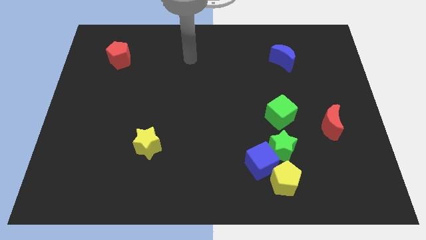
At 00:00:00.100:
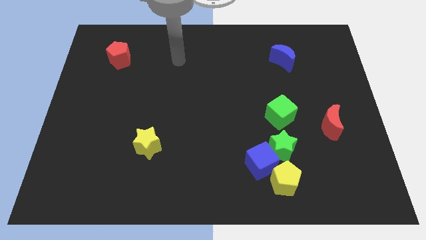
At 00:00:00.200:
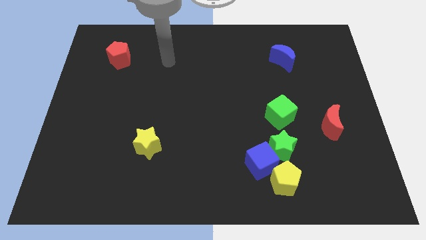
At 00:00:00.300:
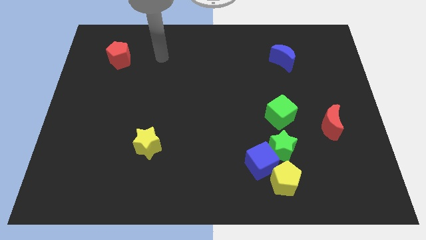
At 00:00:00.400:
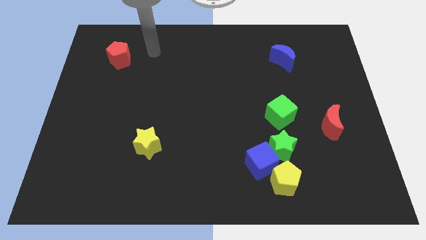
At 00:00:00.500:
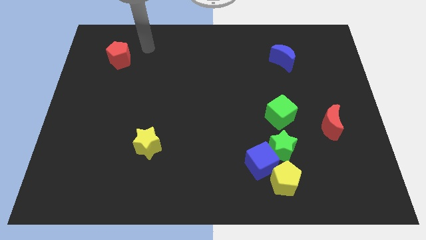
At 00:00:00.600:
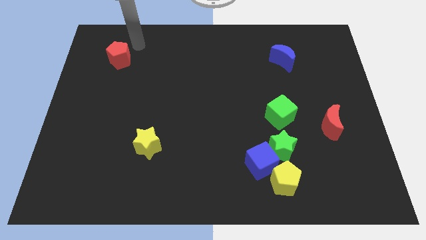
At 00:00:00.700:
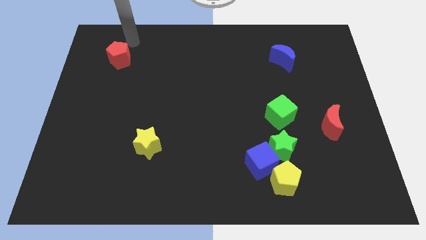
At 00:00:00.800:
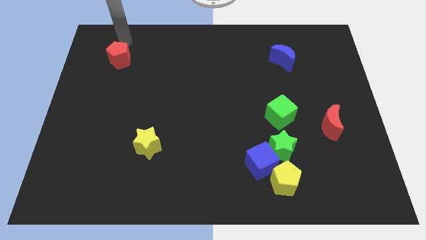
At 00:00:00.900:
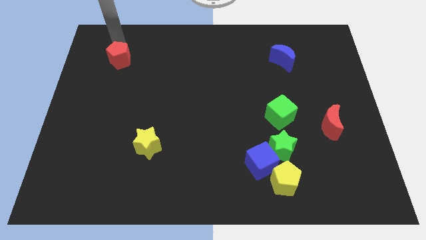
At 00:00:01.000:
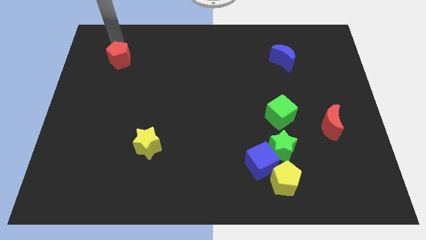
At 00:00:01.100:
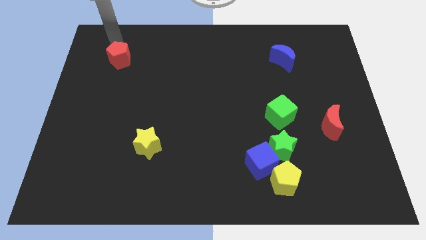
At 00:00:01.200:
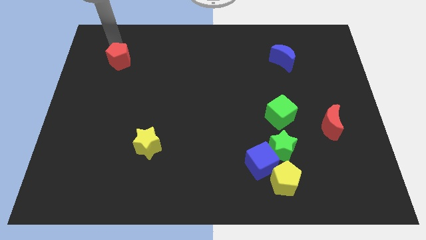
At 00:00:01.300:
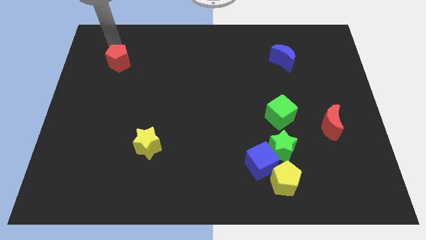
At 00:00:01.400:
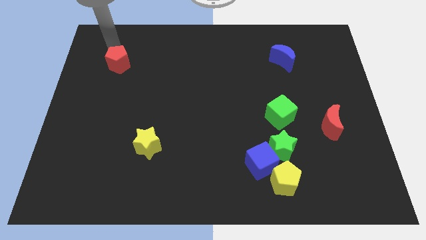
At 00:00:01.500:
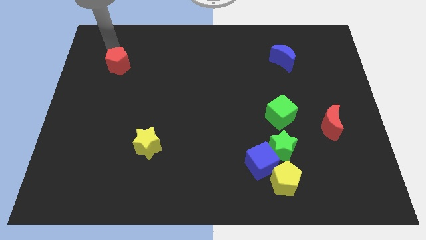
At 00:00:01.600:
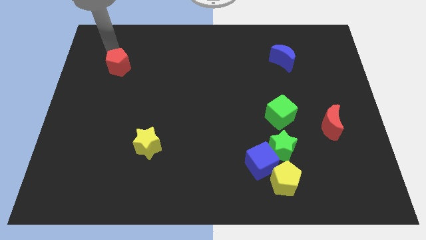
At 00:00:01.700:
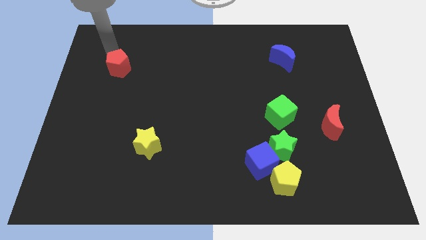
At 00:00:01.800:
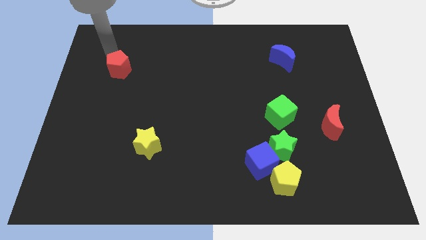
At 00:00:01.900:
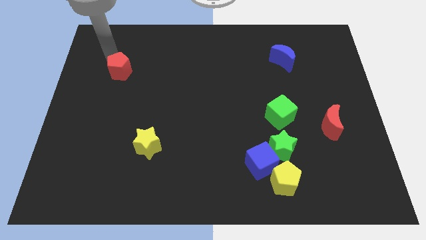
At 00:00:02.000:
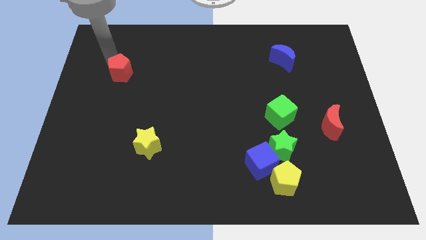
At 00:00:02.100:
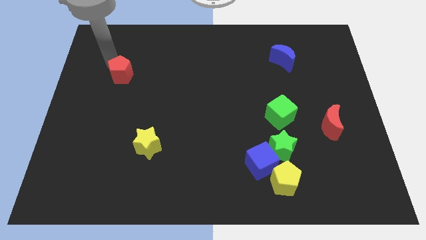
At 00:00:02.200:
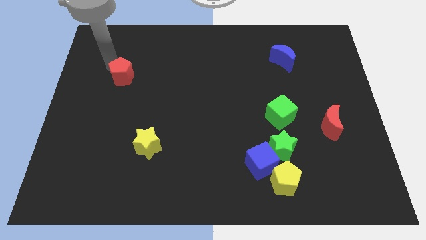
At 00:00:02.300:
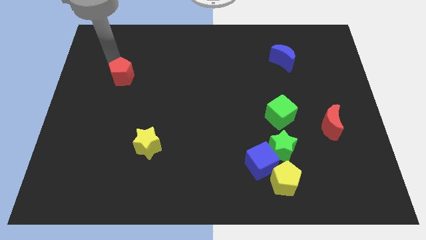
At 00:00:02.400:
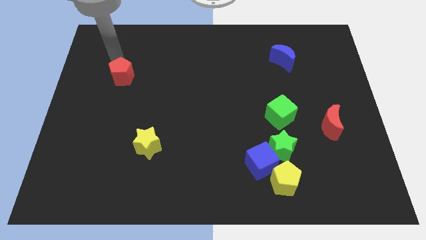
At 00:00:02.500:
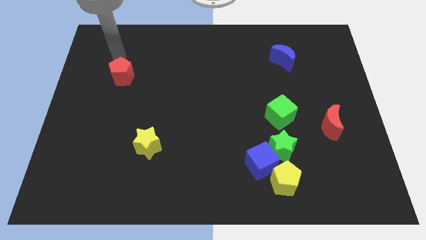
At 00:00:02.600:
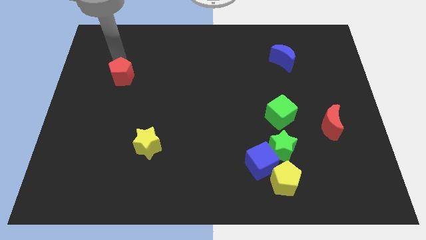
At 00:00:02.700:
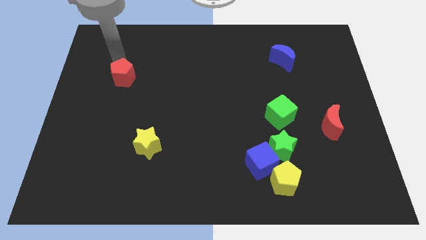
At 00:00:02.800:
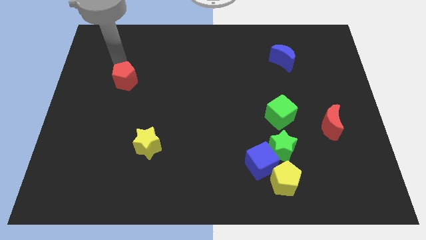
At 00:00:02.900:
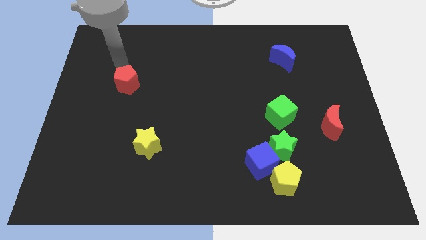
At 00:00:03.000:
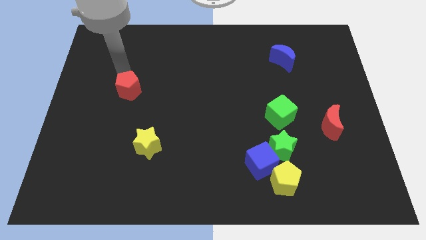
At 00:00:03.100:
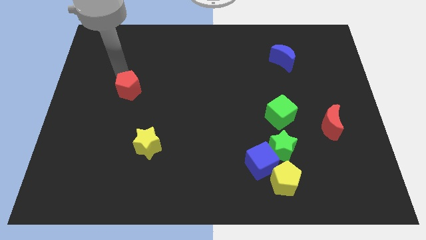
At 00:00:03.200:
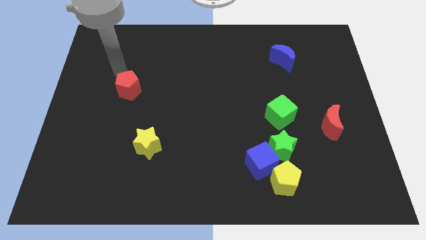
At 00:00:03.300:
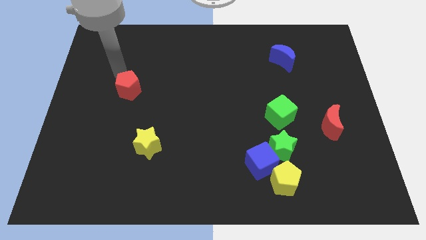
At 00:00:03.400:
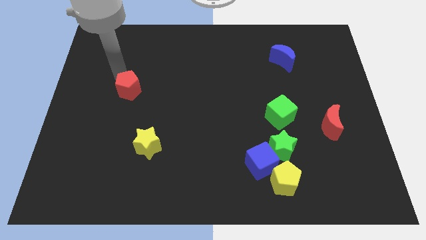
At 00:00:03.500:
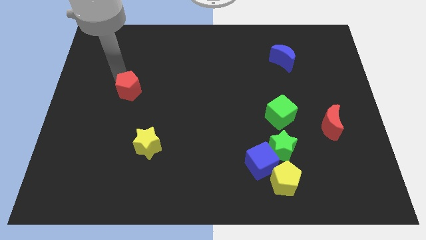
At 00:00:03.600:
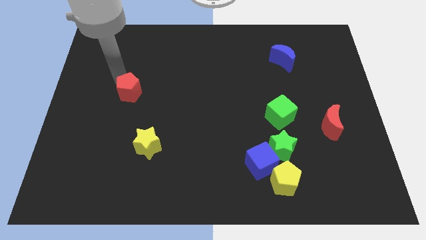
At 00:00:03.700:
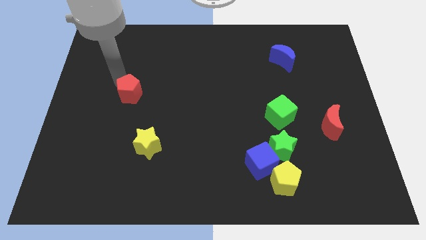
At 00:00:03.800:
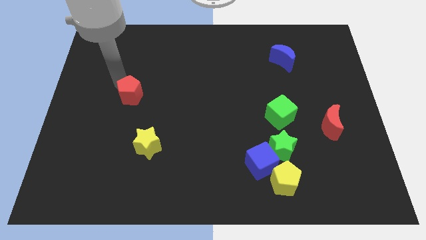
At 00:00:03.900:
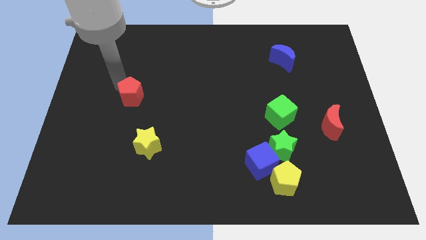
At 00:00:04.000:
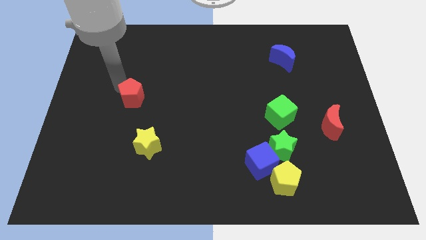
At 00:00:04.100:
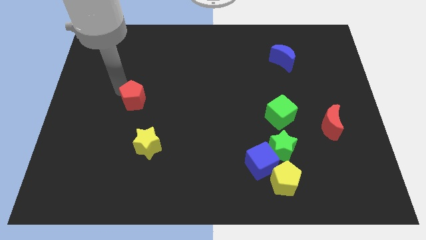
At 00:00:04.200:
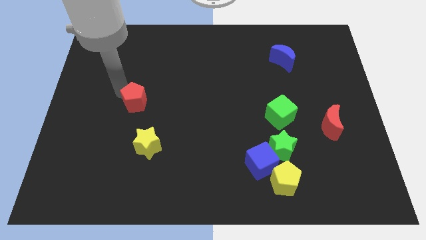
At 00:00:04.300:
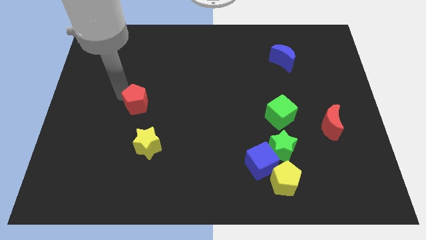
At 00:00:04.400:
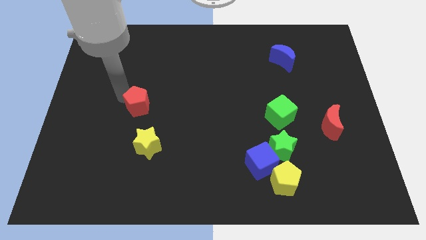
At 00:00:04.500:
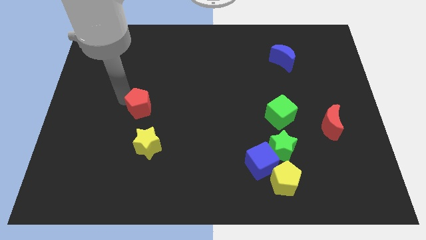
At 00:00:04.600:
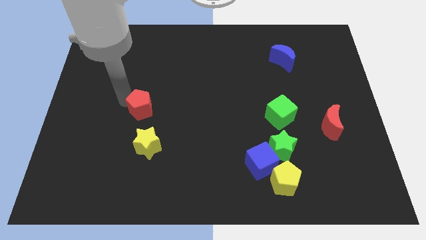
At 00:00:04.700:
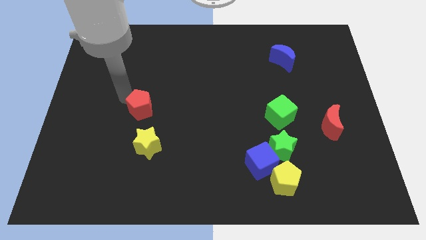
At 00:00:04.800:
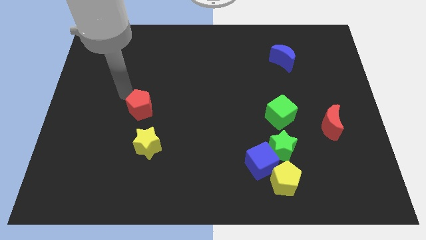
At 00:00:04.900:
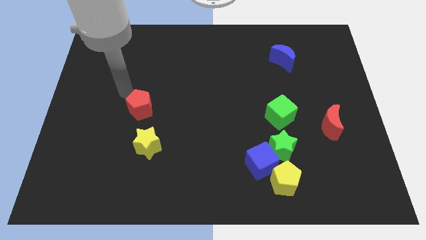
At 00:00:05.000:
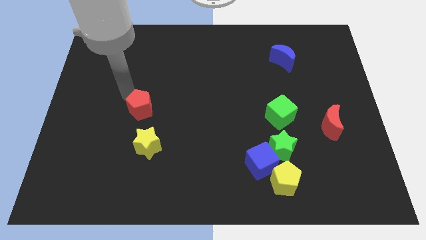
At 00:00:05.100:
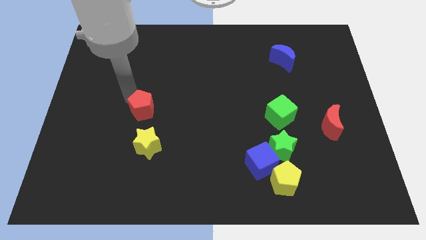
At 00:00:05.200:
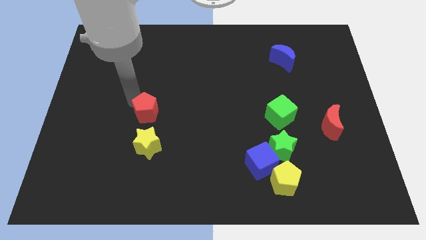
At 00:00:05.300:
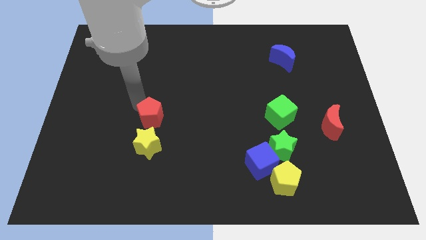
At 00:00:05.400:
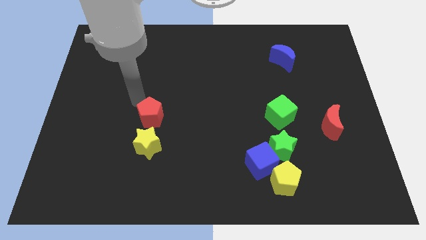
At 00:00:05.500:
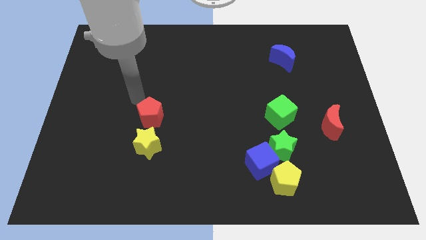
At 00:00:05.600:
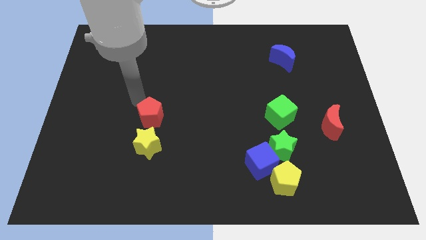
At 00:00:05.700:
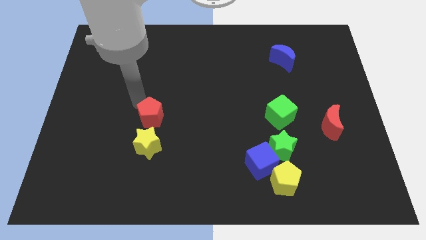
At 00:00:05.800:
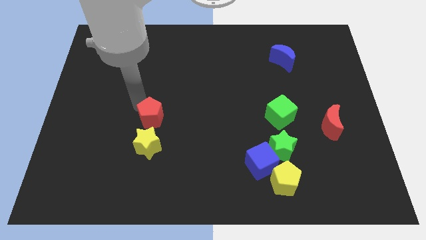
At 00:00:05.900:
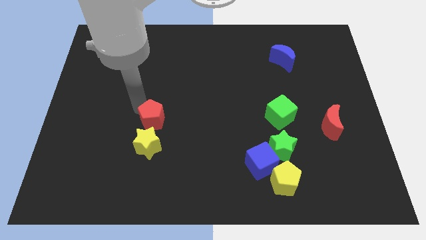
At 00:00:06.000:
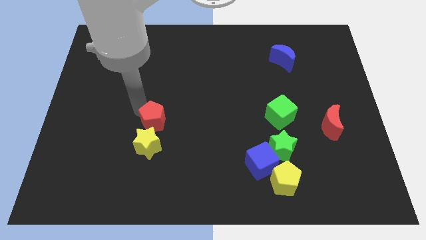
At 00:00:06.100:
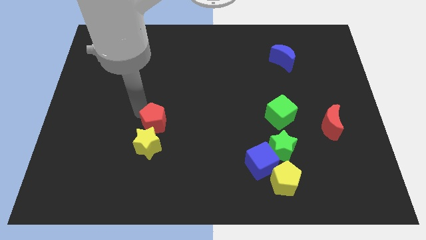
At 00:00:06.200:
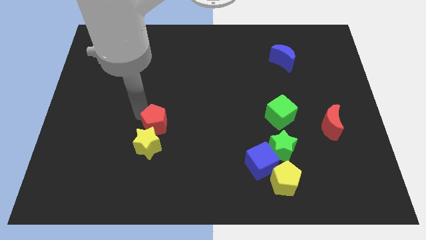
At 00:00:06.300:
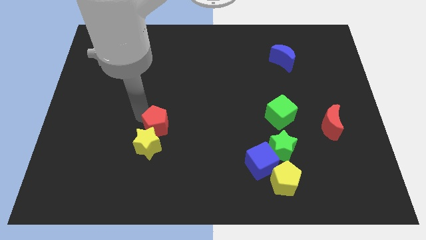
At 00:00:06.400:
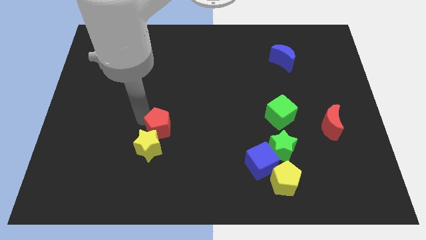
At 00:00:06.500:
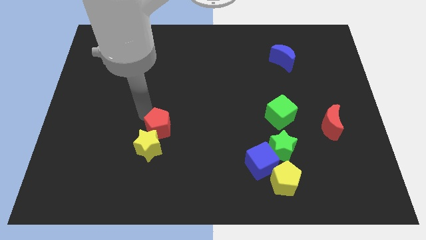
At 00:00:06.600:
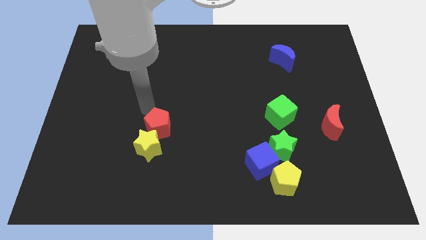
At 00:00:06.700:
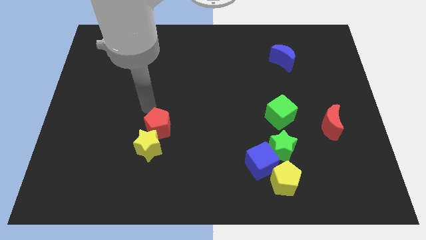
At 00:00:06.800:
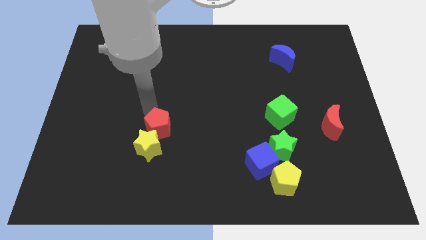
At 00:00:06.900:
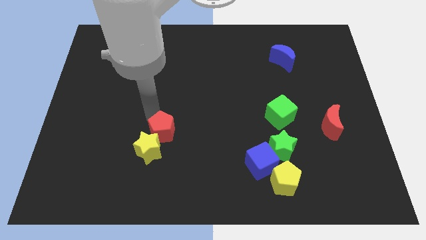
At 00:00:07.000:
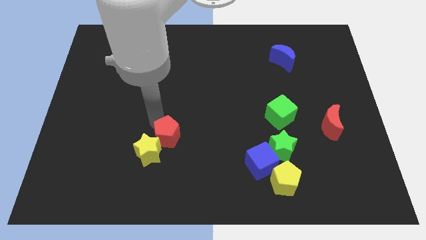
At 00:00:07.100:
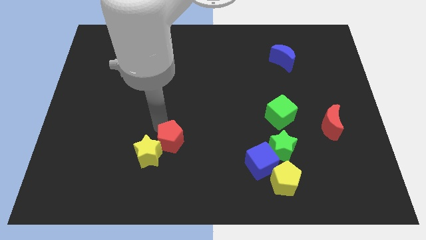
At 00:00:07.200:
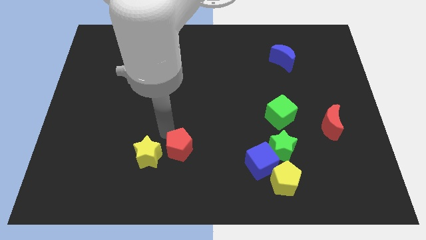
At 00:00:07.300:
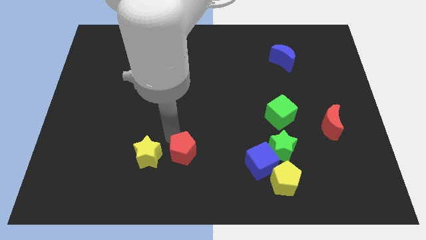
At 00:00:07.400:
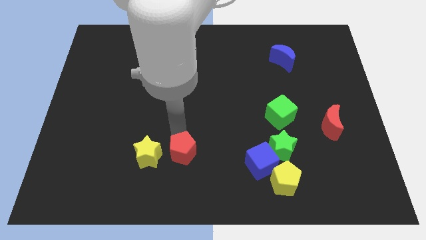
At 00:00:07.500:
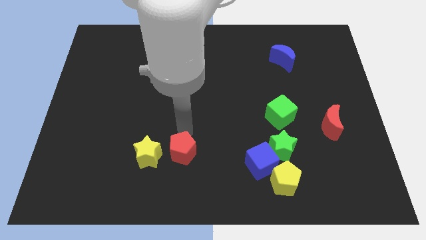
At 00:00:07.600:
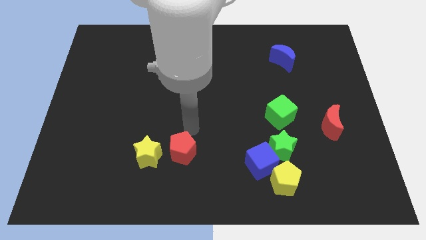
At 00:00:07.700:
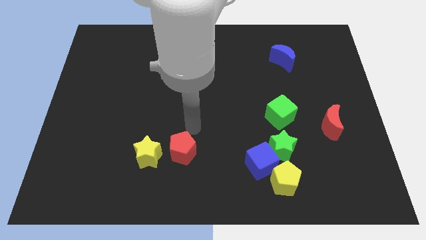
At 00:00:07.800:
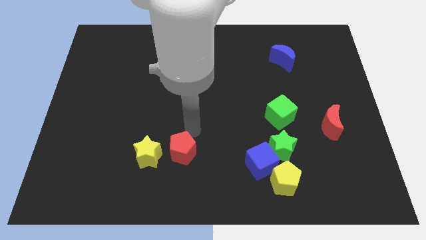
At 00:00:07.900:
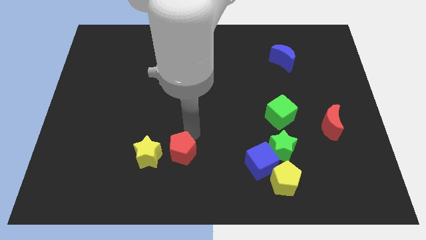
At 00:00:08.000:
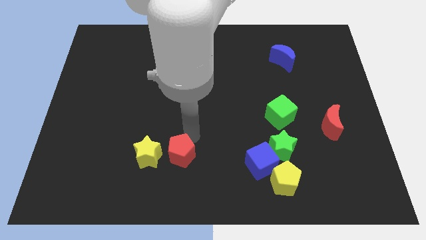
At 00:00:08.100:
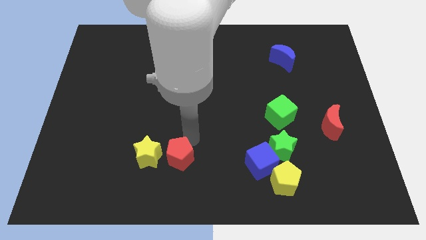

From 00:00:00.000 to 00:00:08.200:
slide the red pentagon to the bottom right of the yellow star
